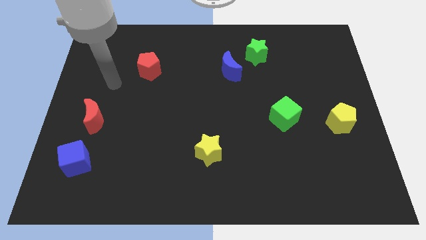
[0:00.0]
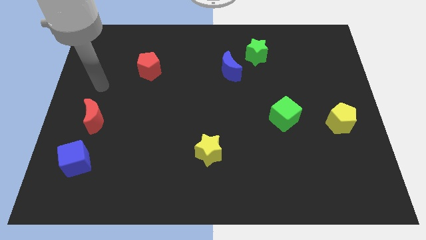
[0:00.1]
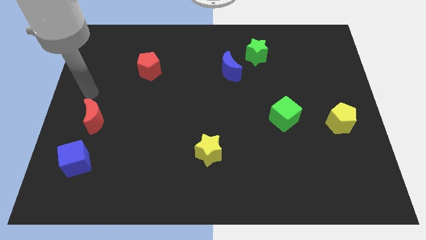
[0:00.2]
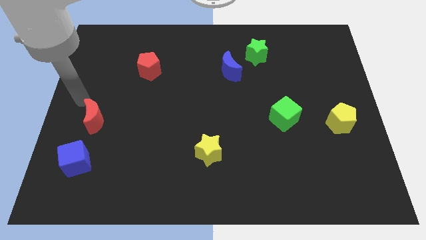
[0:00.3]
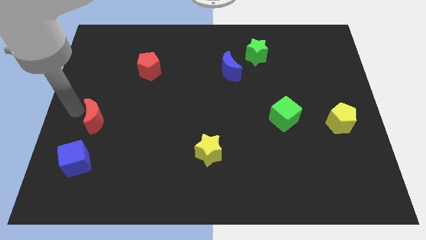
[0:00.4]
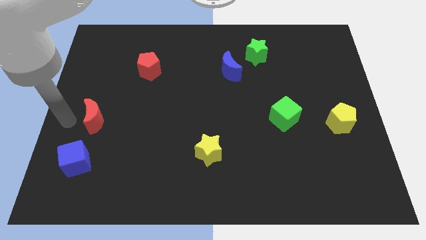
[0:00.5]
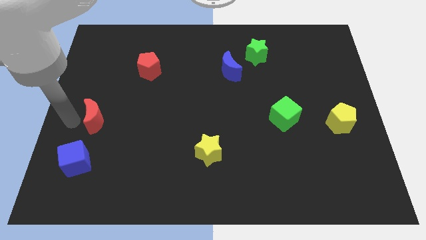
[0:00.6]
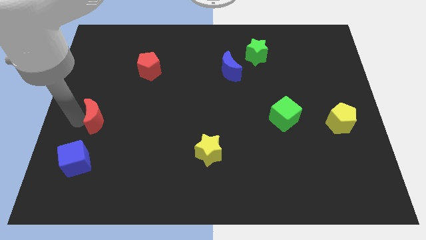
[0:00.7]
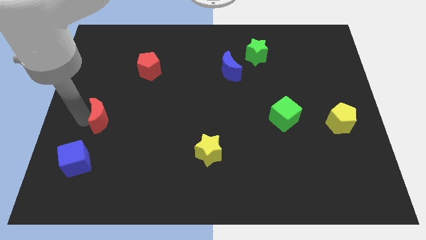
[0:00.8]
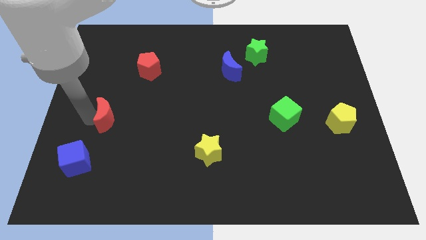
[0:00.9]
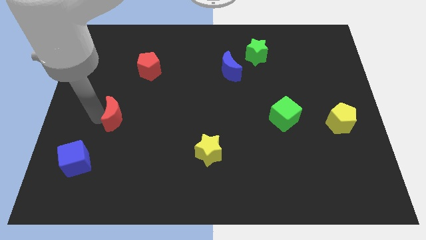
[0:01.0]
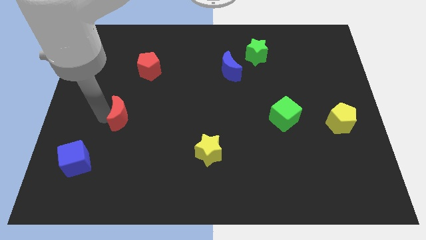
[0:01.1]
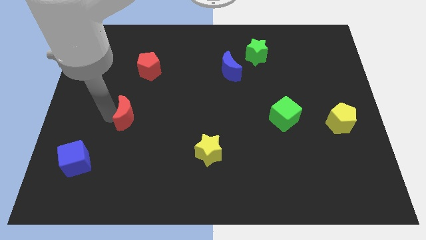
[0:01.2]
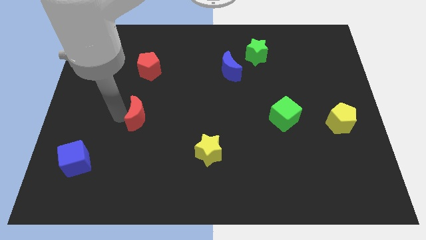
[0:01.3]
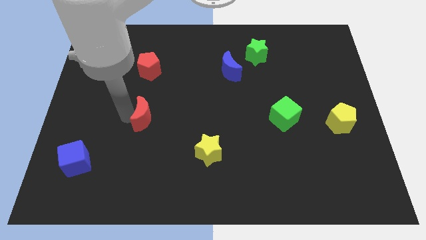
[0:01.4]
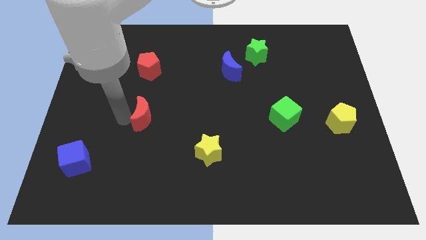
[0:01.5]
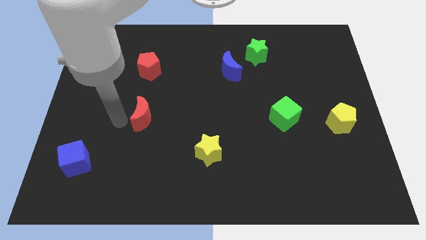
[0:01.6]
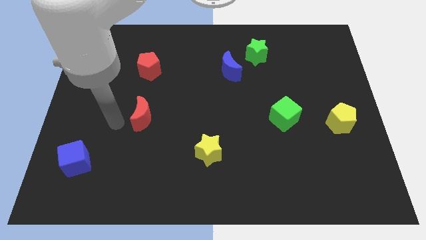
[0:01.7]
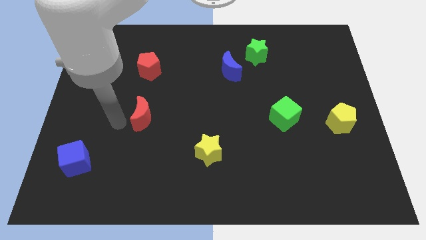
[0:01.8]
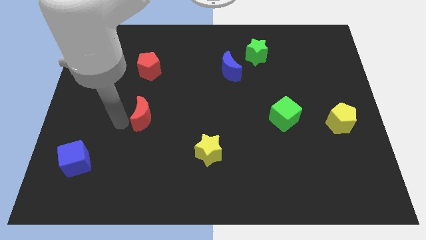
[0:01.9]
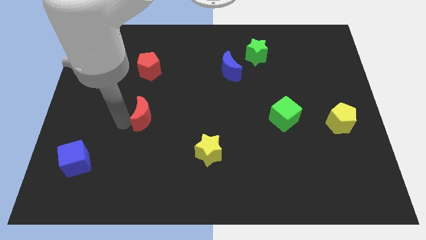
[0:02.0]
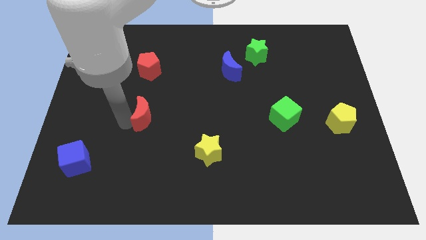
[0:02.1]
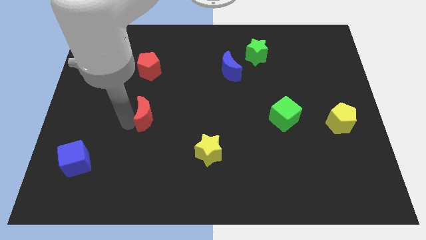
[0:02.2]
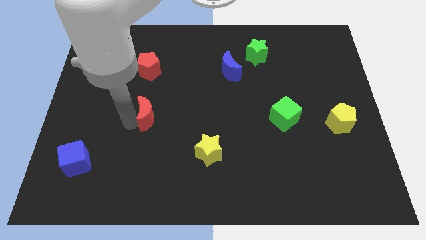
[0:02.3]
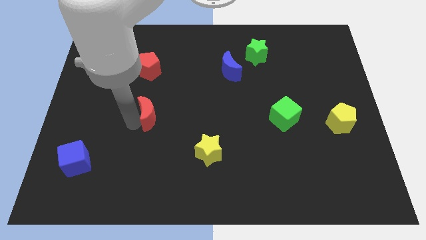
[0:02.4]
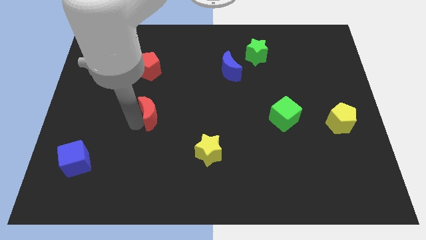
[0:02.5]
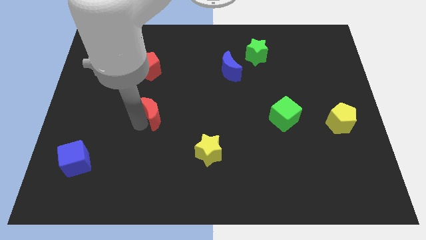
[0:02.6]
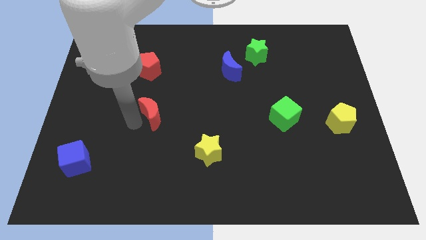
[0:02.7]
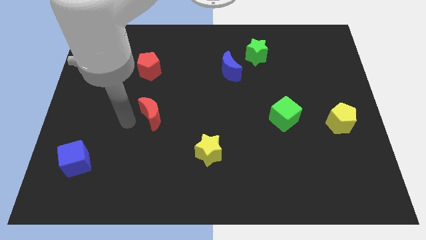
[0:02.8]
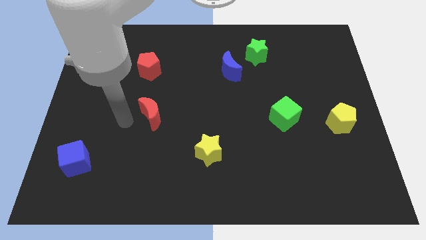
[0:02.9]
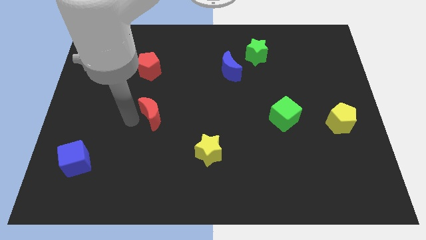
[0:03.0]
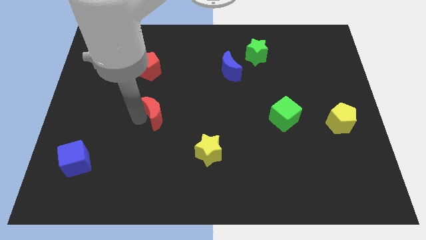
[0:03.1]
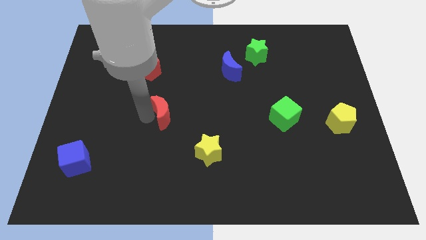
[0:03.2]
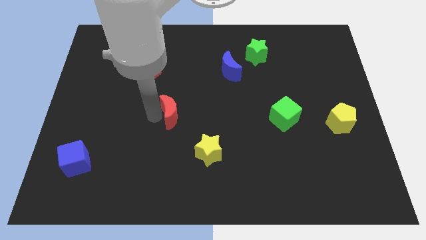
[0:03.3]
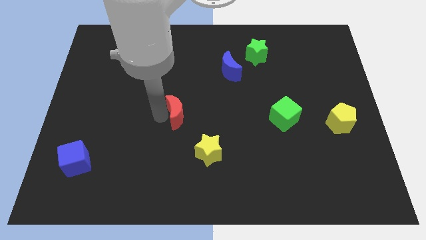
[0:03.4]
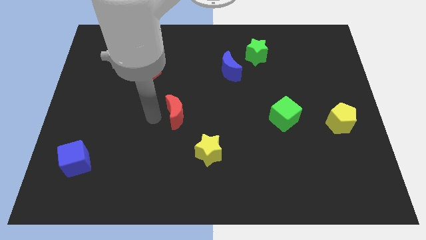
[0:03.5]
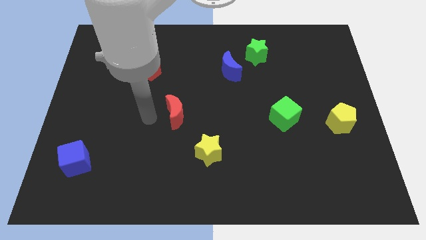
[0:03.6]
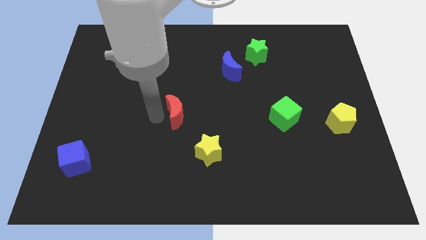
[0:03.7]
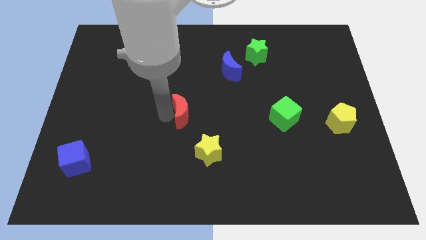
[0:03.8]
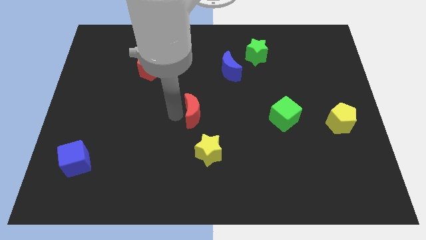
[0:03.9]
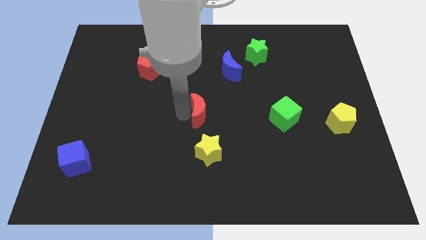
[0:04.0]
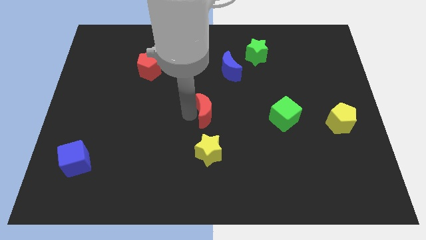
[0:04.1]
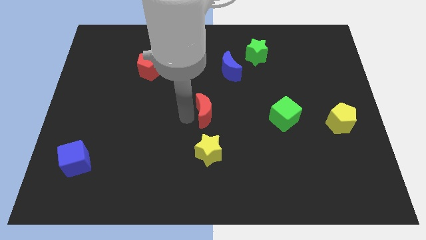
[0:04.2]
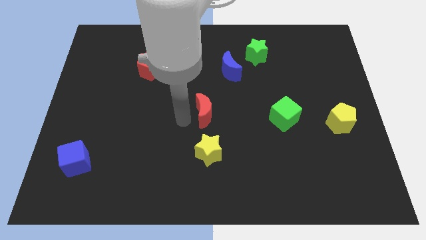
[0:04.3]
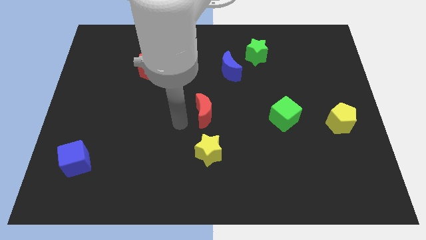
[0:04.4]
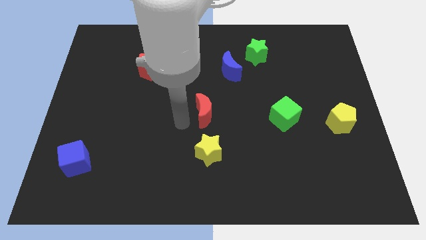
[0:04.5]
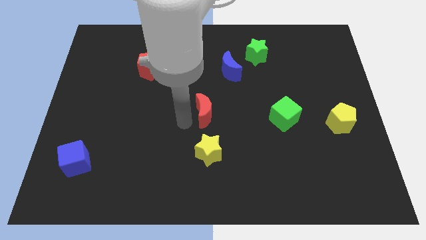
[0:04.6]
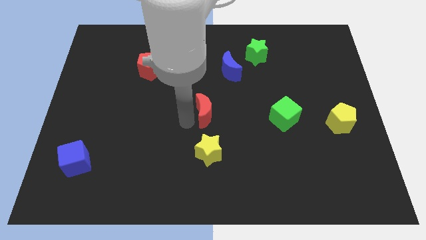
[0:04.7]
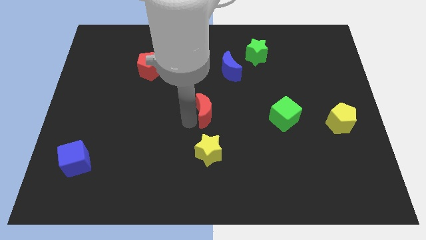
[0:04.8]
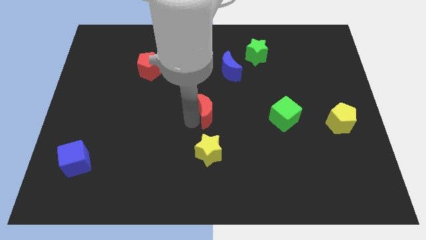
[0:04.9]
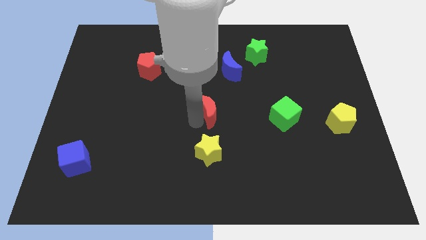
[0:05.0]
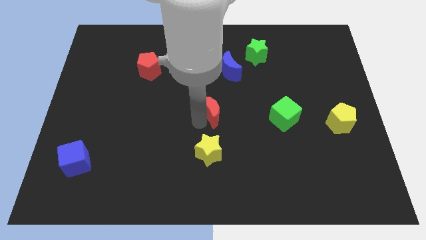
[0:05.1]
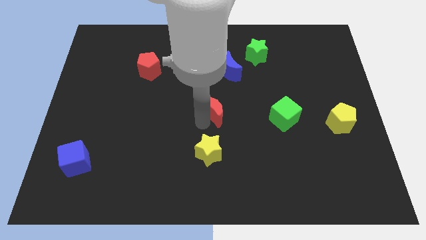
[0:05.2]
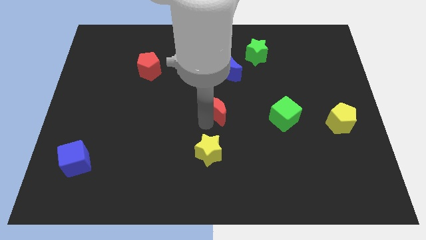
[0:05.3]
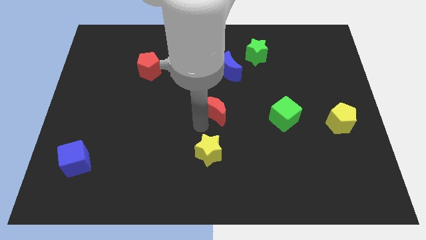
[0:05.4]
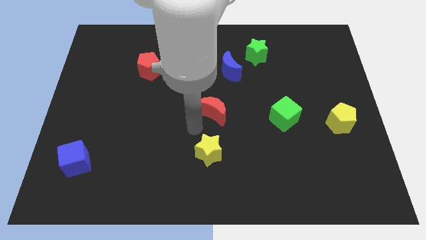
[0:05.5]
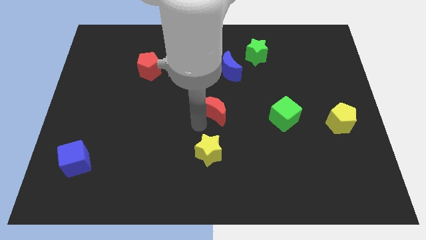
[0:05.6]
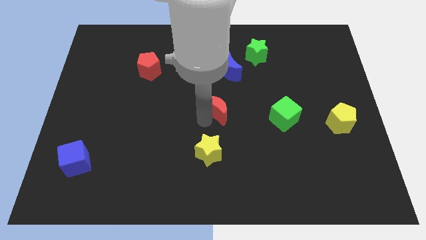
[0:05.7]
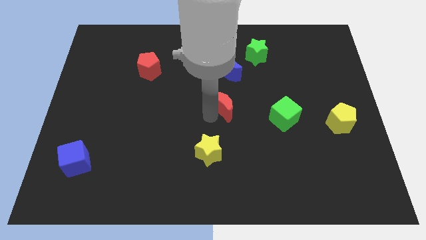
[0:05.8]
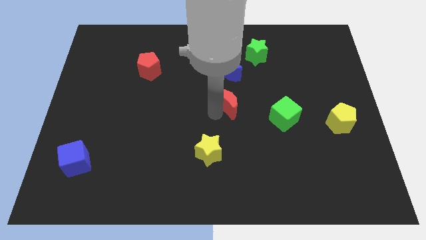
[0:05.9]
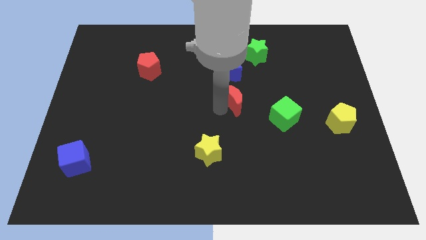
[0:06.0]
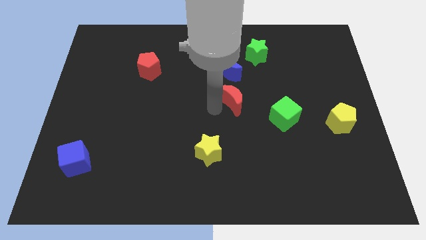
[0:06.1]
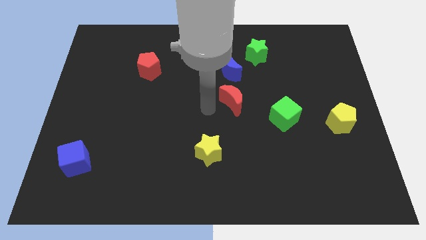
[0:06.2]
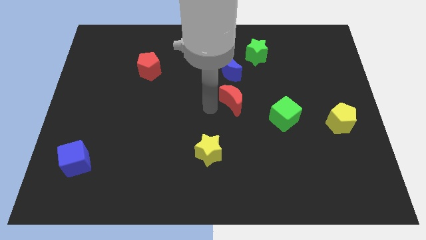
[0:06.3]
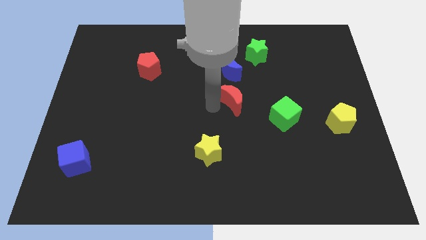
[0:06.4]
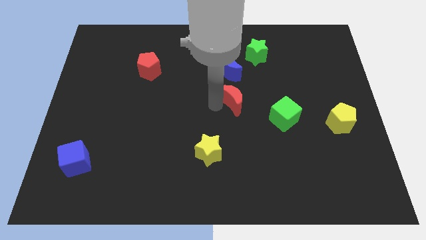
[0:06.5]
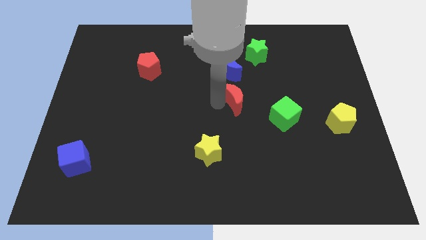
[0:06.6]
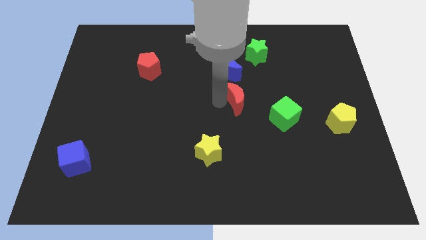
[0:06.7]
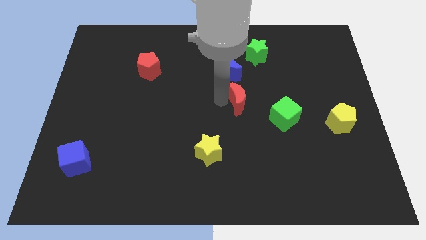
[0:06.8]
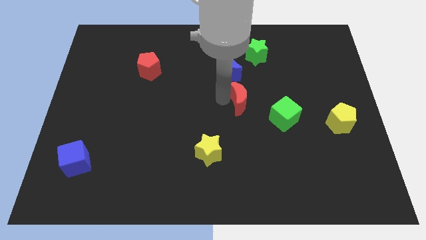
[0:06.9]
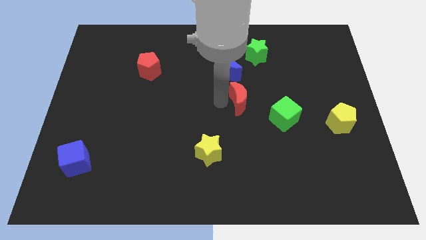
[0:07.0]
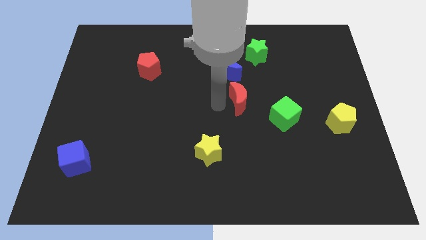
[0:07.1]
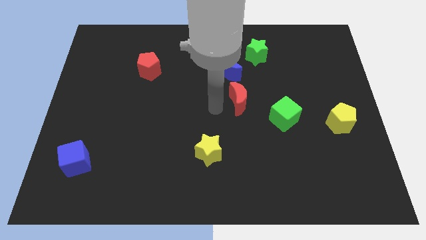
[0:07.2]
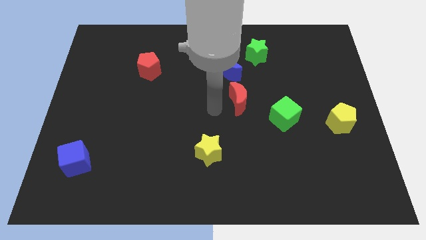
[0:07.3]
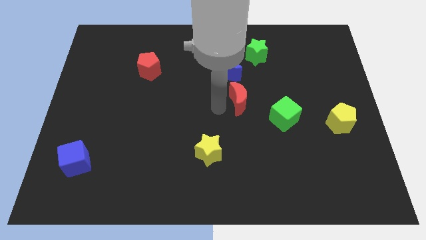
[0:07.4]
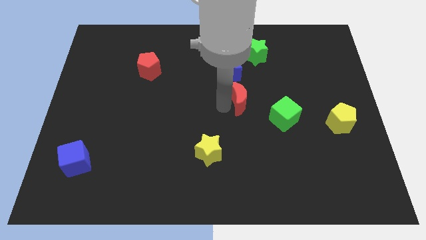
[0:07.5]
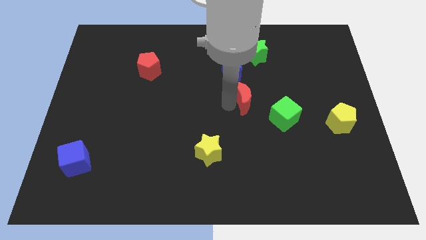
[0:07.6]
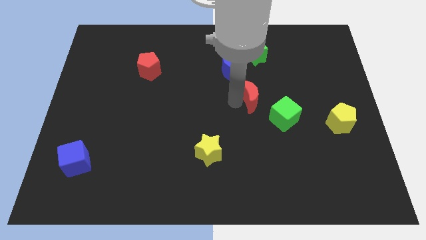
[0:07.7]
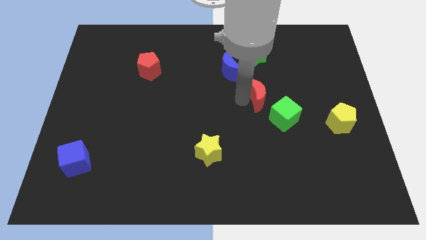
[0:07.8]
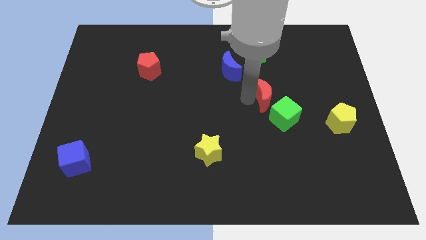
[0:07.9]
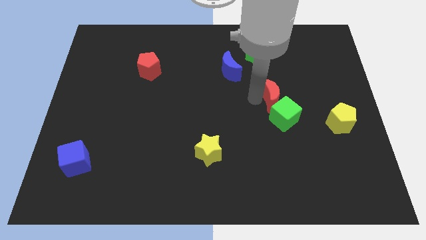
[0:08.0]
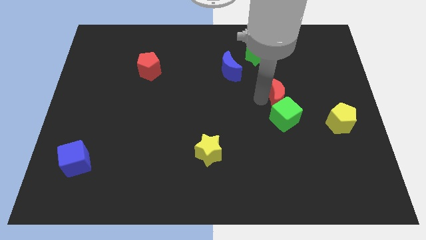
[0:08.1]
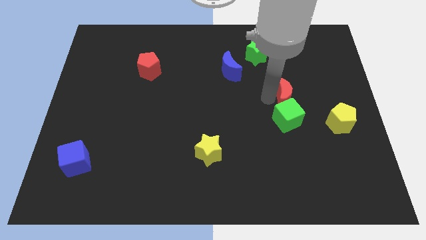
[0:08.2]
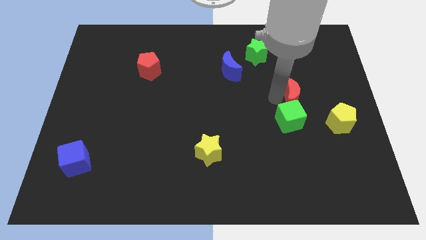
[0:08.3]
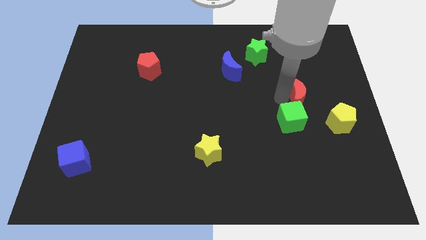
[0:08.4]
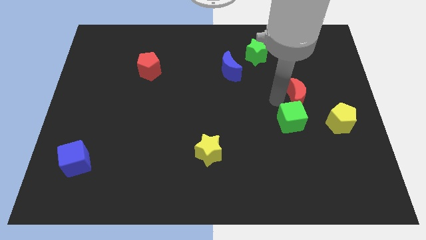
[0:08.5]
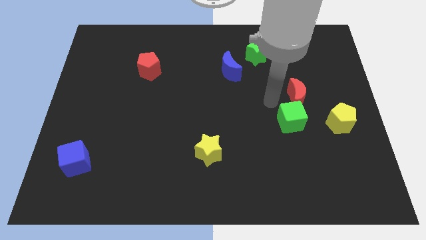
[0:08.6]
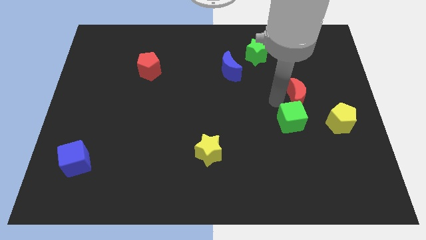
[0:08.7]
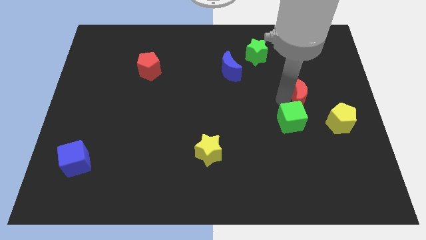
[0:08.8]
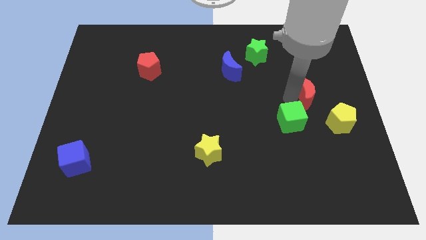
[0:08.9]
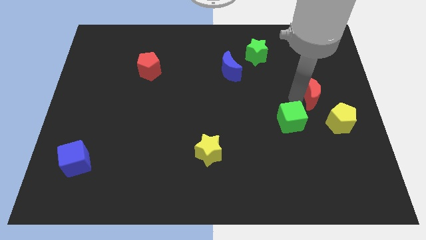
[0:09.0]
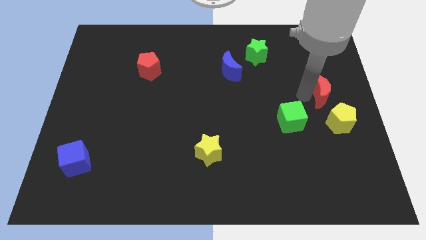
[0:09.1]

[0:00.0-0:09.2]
move the red moon to the center right
